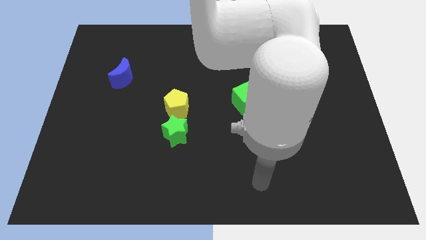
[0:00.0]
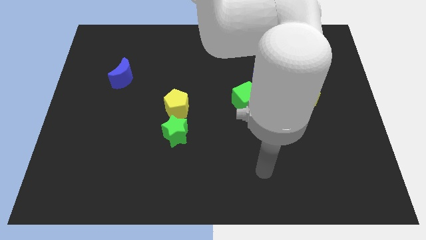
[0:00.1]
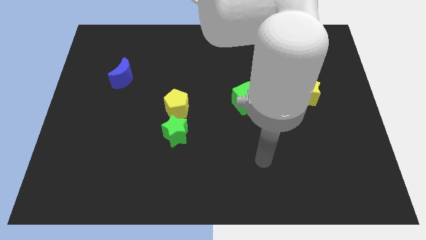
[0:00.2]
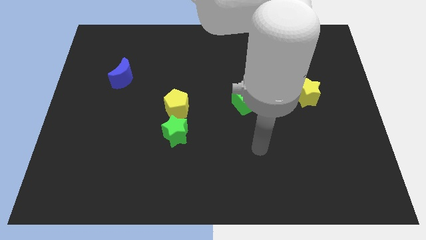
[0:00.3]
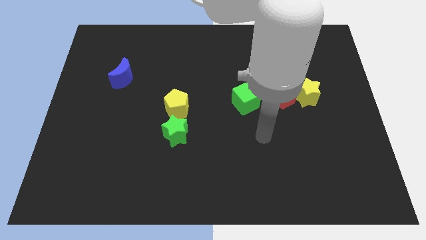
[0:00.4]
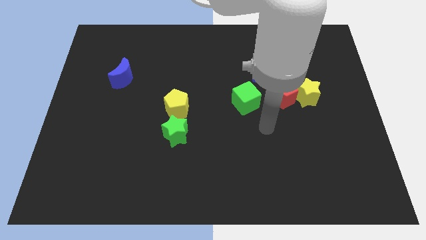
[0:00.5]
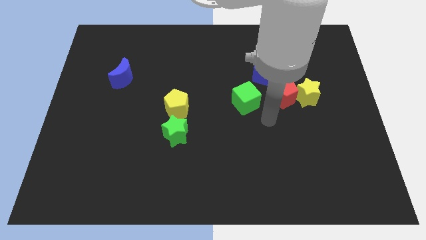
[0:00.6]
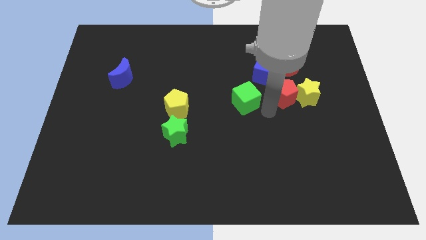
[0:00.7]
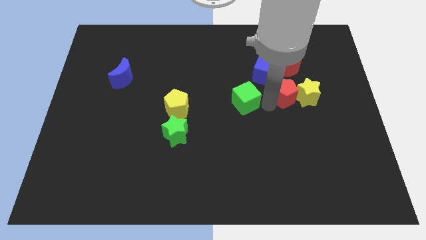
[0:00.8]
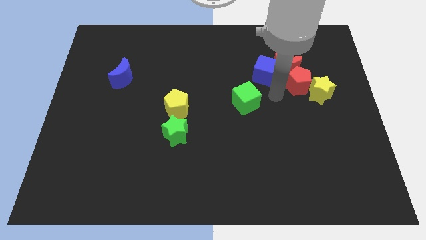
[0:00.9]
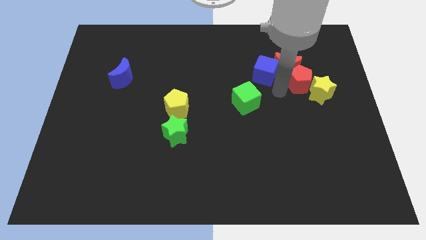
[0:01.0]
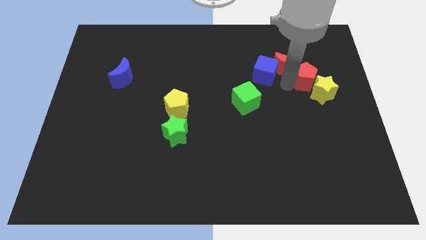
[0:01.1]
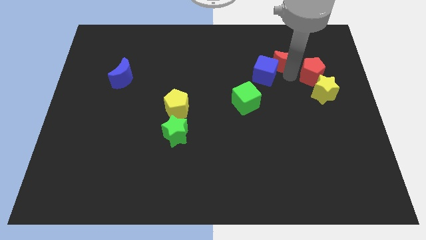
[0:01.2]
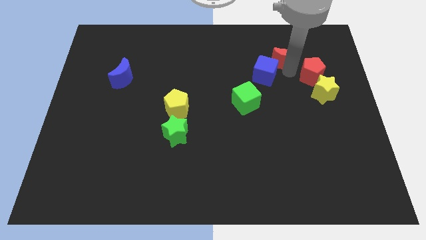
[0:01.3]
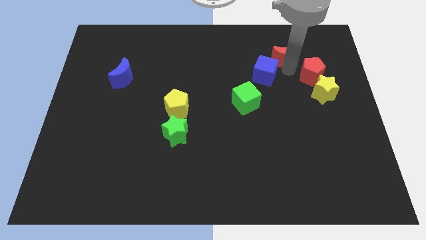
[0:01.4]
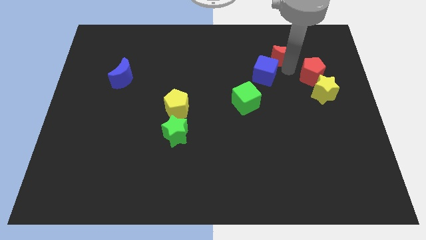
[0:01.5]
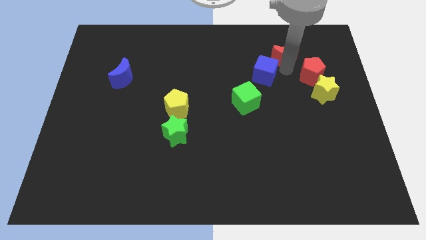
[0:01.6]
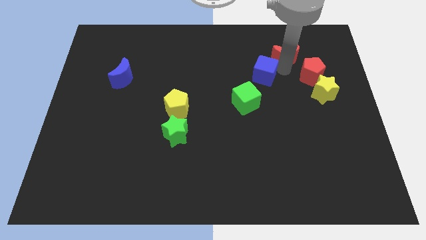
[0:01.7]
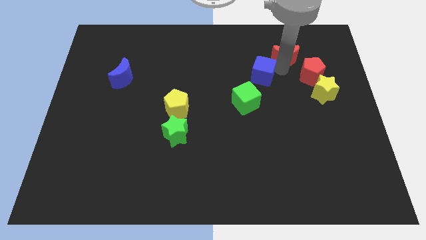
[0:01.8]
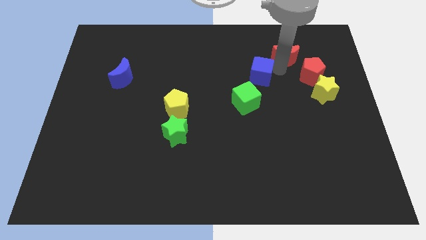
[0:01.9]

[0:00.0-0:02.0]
separate the blue cube from the red moon and red pentagon

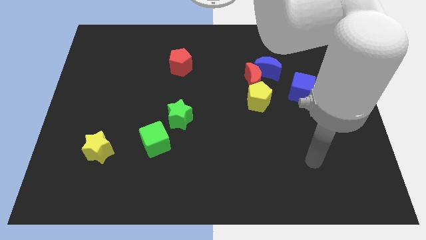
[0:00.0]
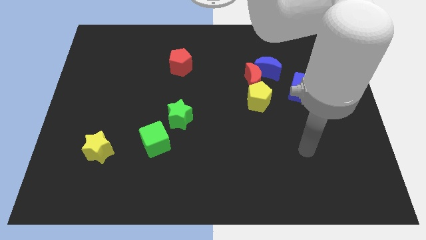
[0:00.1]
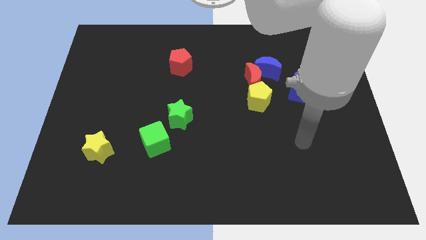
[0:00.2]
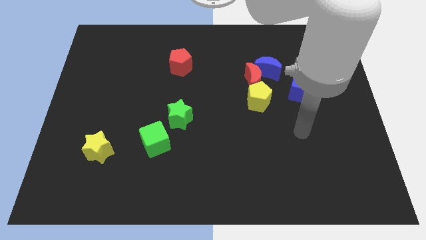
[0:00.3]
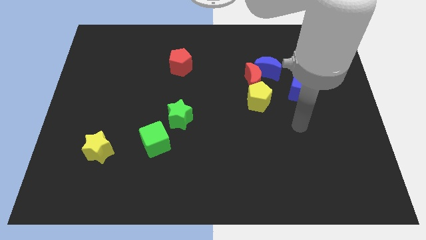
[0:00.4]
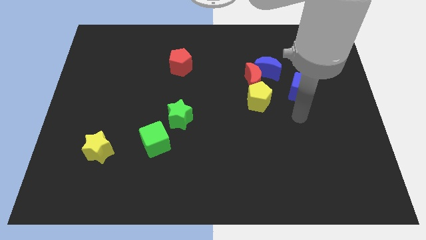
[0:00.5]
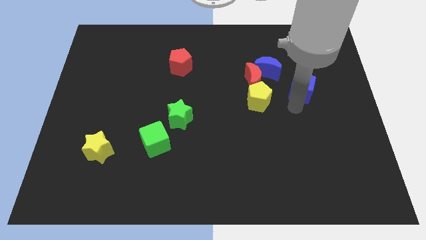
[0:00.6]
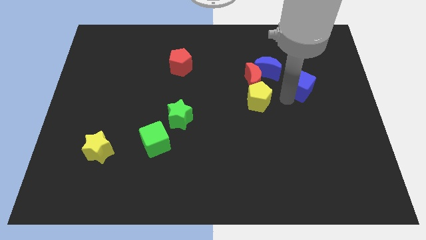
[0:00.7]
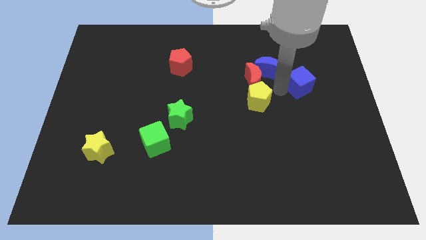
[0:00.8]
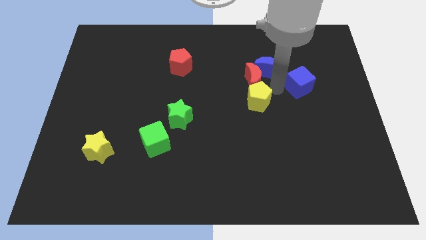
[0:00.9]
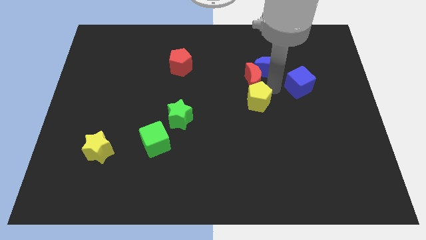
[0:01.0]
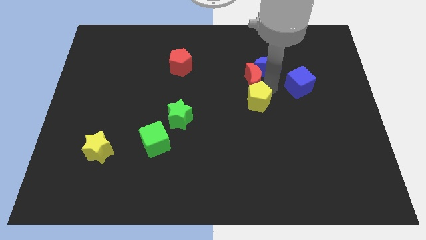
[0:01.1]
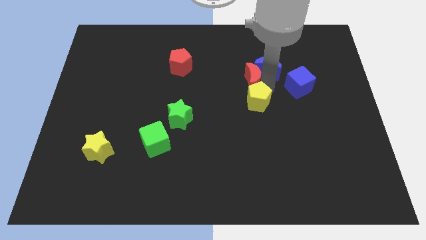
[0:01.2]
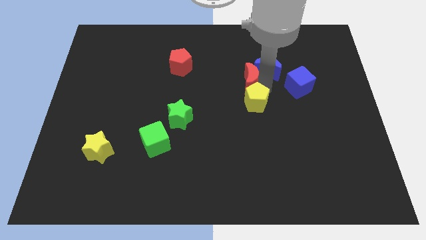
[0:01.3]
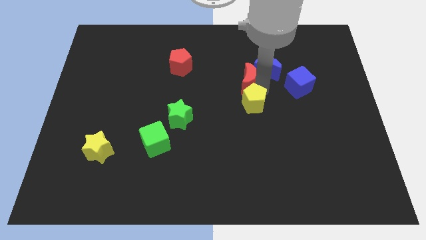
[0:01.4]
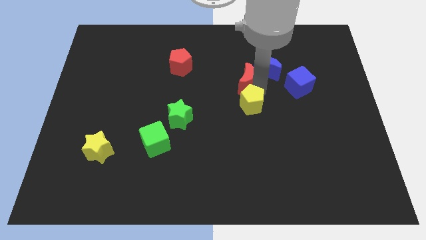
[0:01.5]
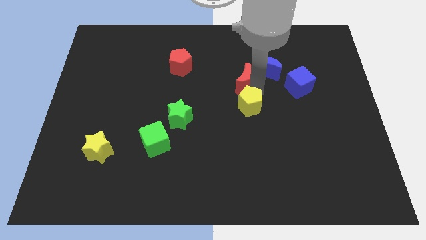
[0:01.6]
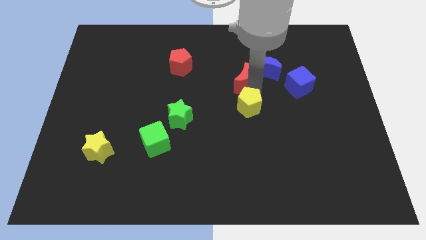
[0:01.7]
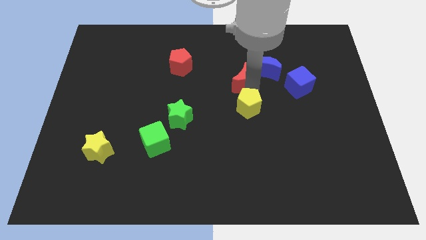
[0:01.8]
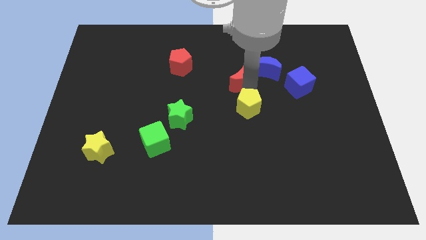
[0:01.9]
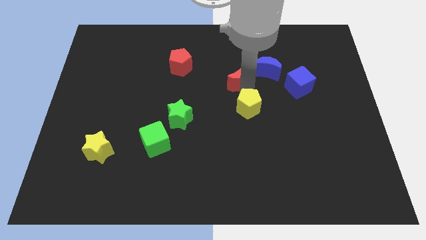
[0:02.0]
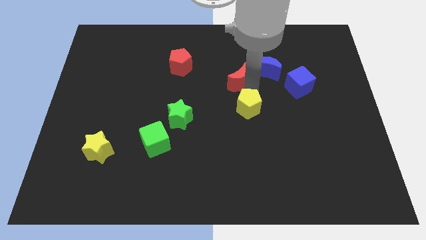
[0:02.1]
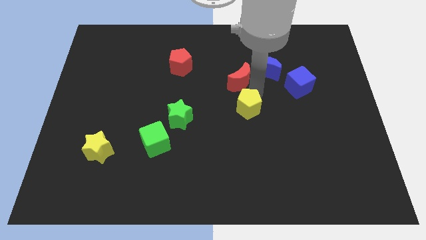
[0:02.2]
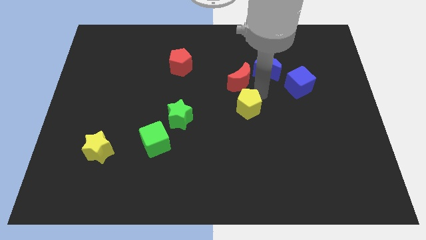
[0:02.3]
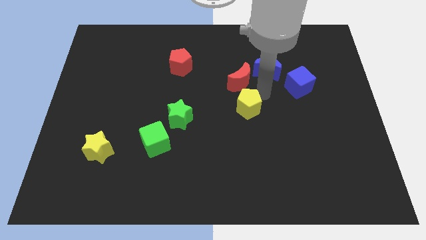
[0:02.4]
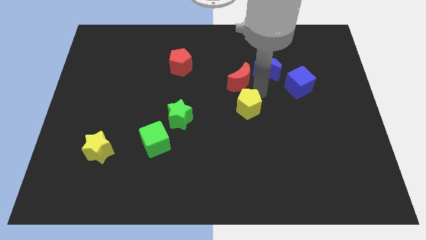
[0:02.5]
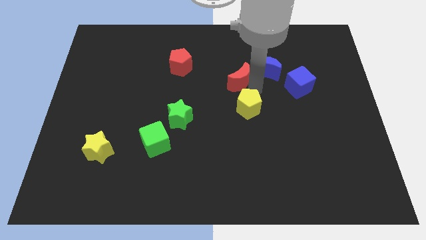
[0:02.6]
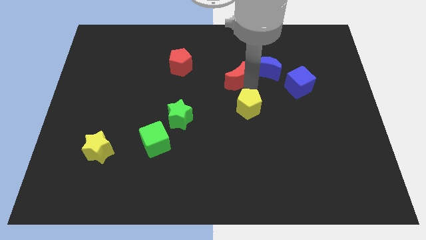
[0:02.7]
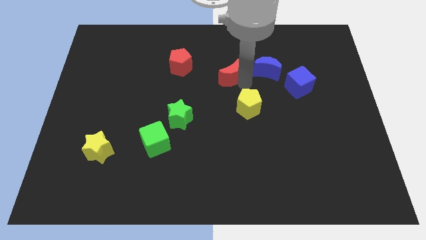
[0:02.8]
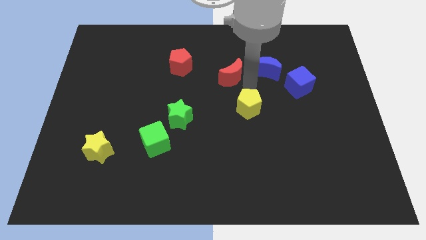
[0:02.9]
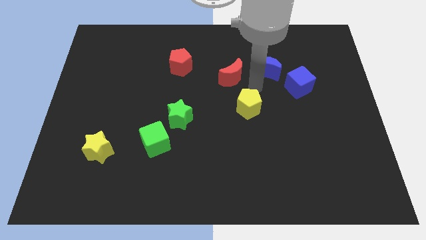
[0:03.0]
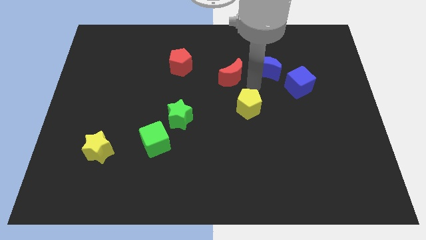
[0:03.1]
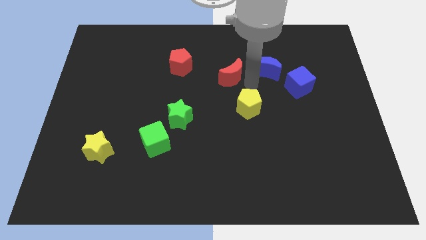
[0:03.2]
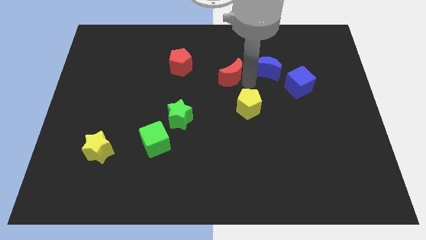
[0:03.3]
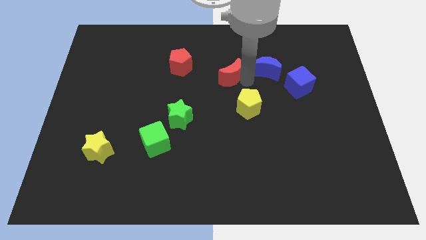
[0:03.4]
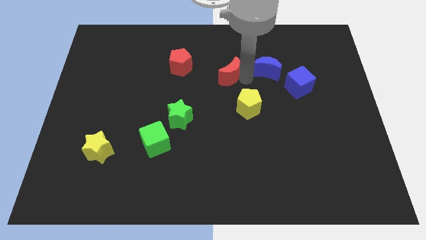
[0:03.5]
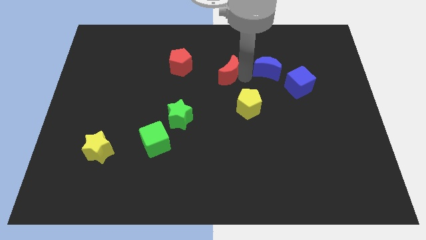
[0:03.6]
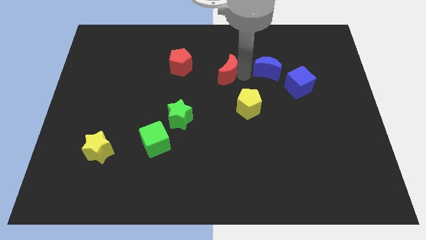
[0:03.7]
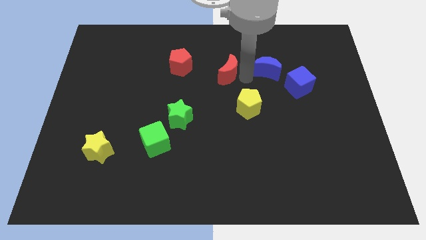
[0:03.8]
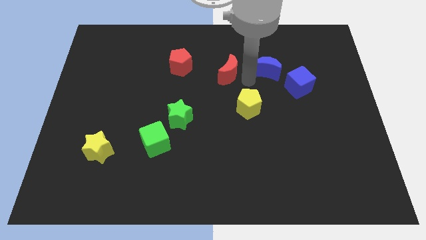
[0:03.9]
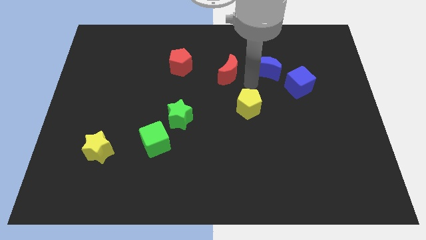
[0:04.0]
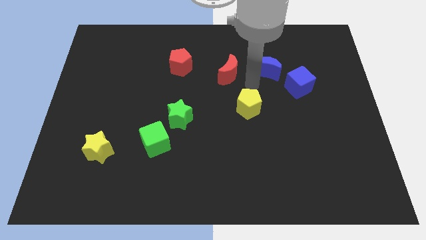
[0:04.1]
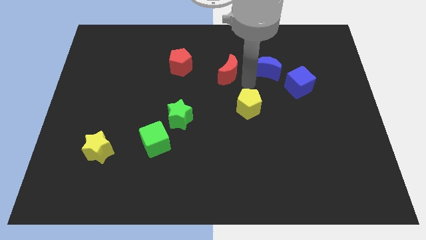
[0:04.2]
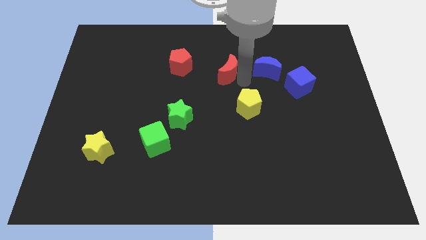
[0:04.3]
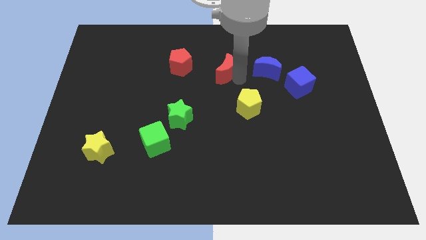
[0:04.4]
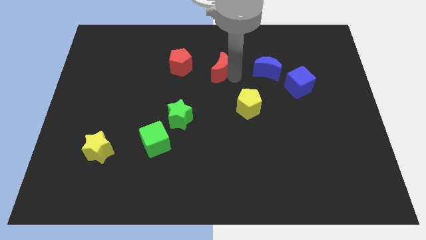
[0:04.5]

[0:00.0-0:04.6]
move the red moon away from the blue moon and yellow pentagon

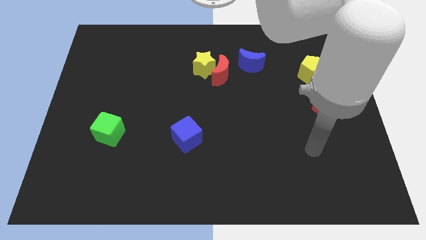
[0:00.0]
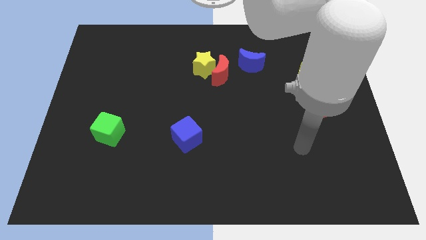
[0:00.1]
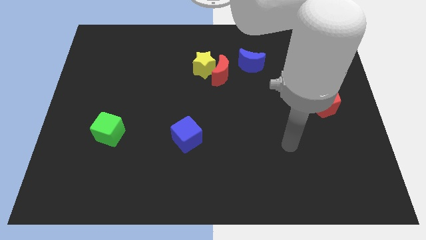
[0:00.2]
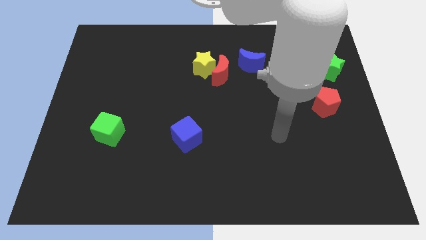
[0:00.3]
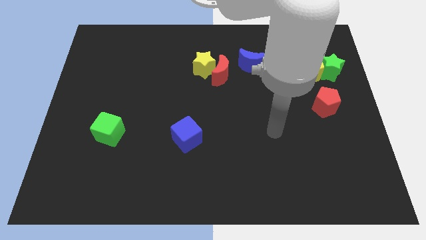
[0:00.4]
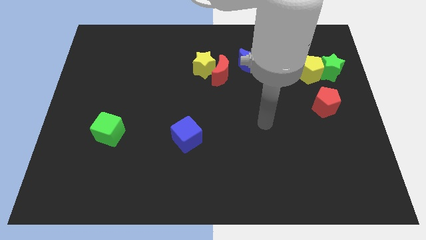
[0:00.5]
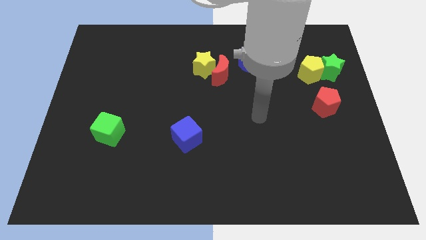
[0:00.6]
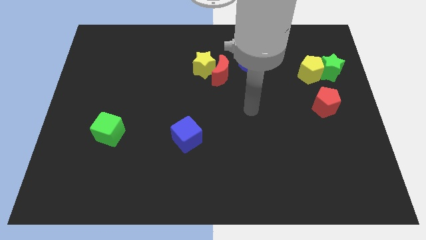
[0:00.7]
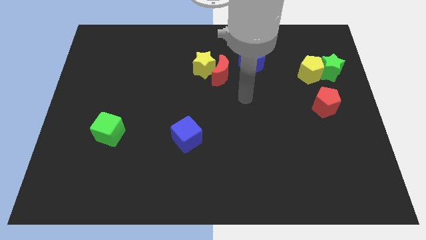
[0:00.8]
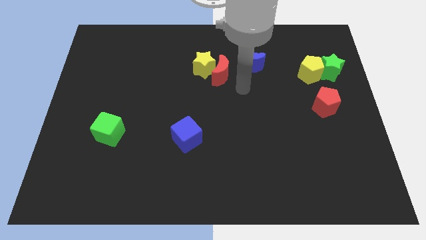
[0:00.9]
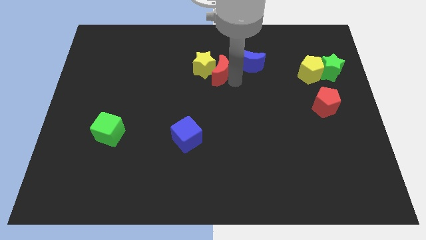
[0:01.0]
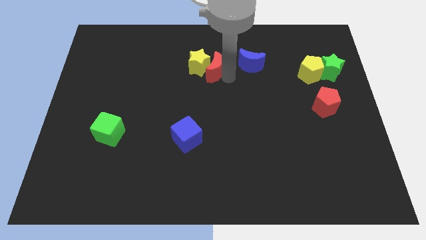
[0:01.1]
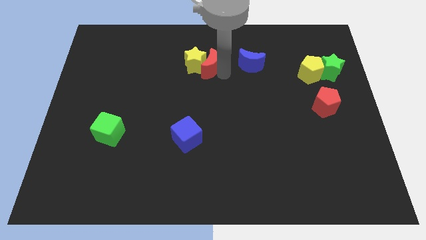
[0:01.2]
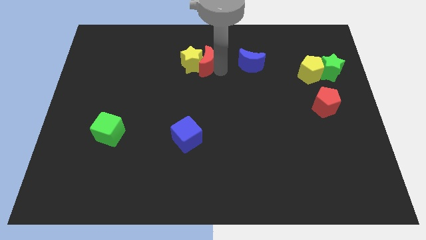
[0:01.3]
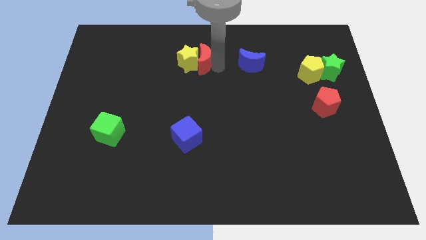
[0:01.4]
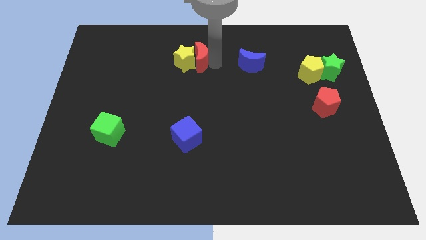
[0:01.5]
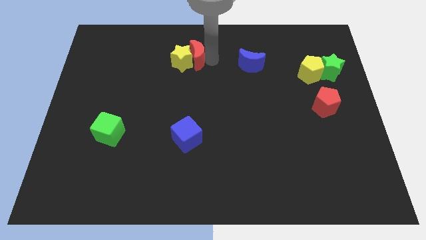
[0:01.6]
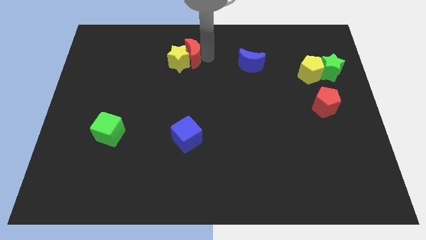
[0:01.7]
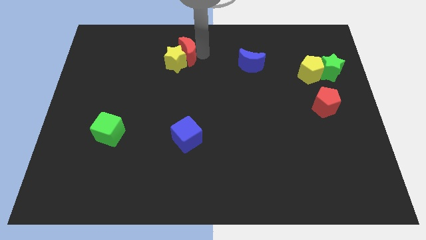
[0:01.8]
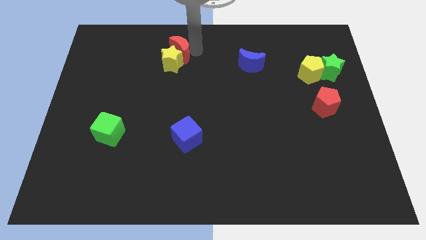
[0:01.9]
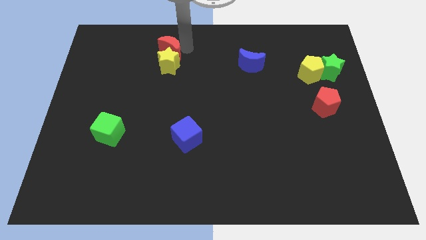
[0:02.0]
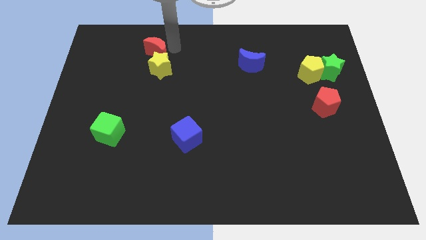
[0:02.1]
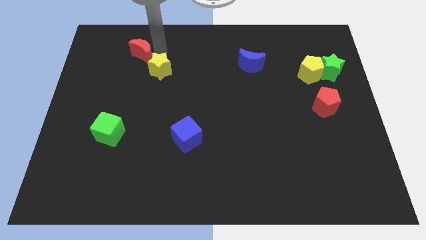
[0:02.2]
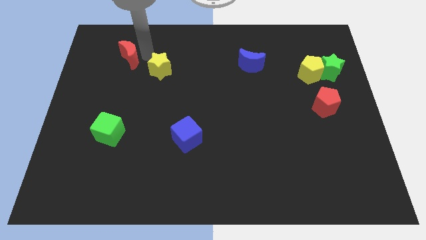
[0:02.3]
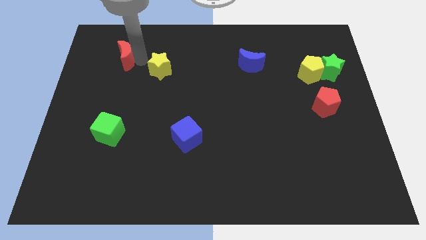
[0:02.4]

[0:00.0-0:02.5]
pull the yellow star apart from the red moon

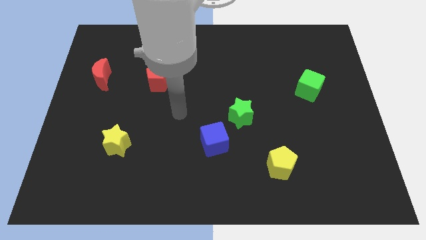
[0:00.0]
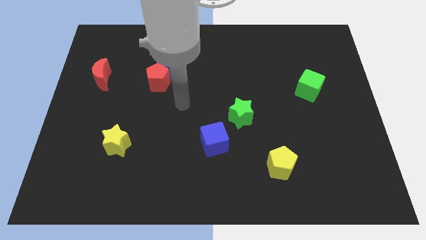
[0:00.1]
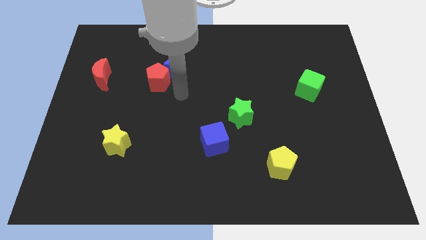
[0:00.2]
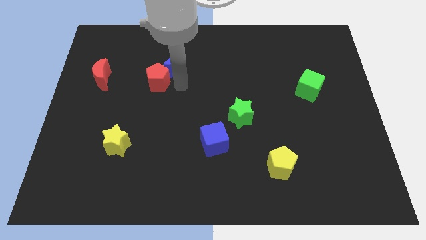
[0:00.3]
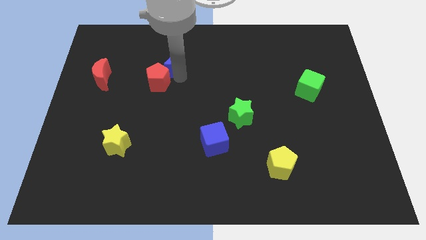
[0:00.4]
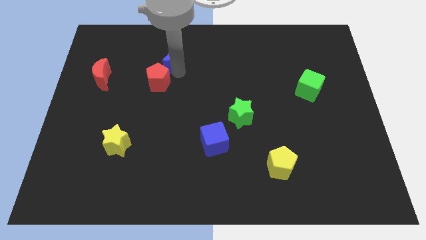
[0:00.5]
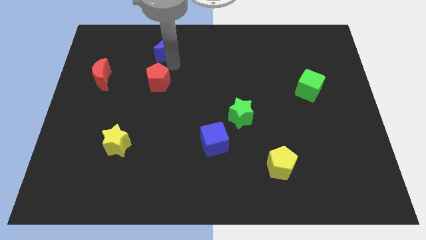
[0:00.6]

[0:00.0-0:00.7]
separate the red pentagon from the blue moon
